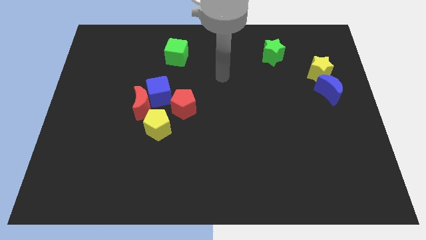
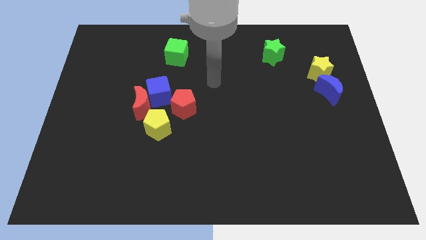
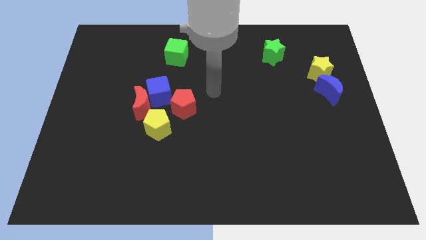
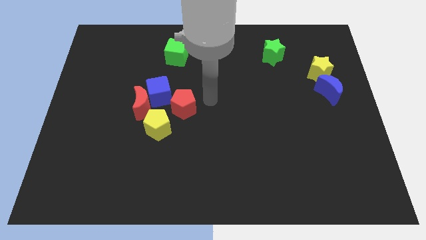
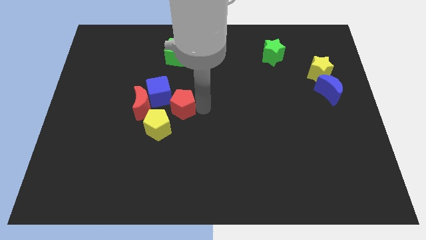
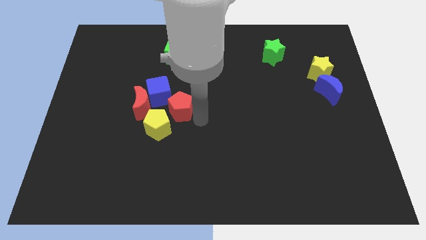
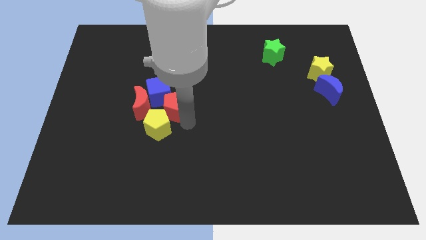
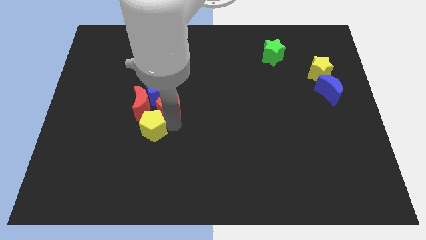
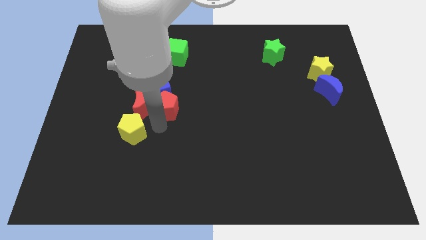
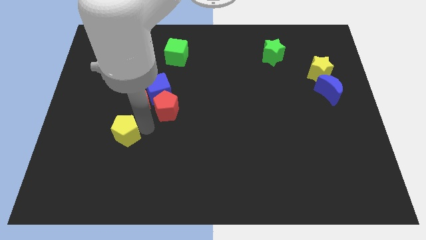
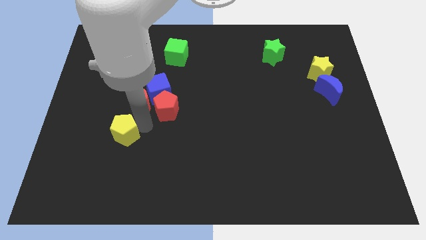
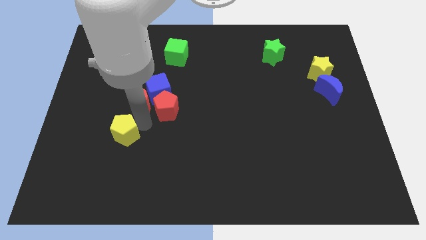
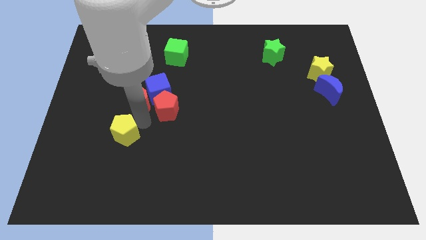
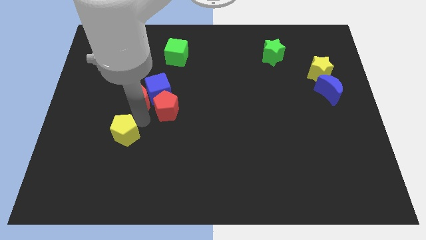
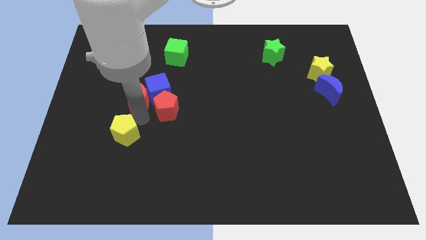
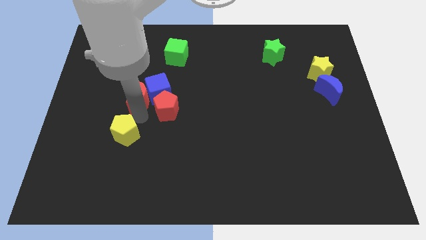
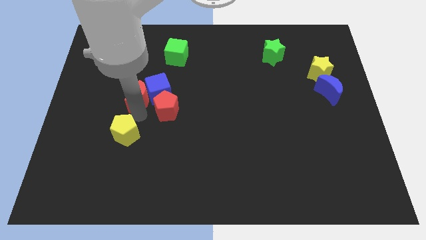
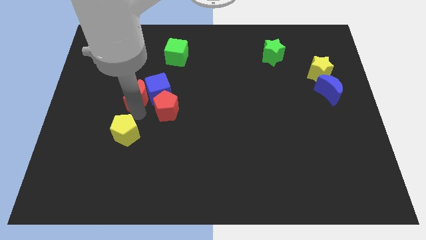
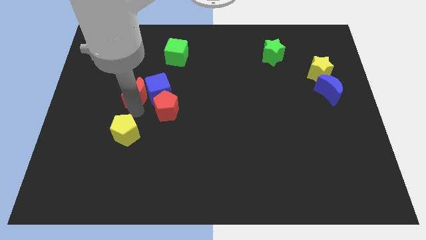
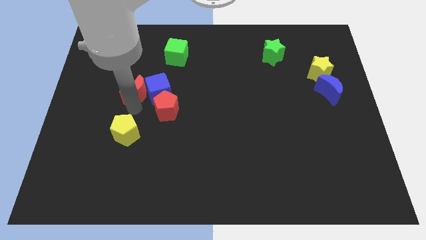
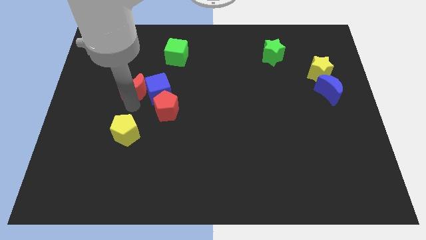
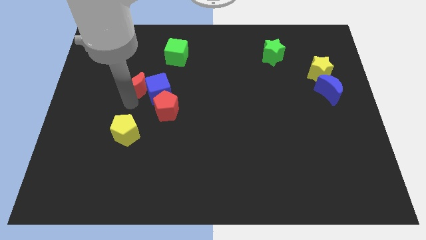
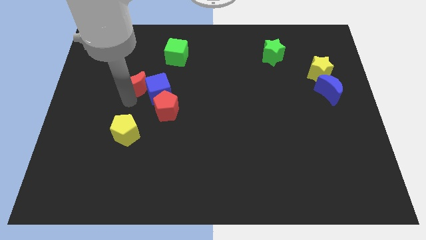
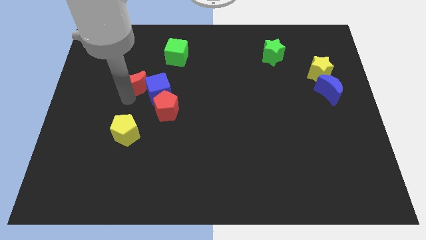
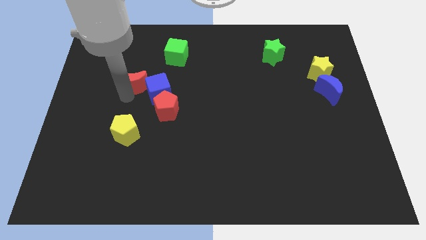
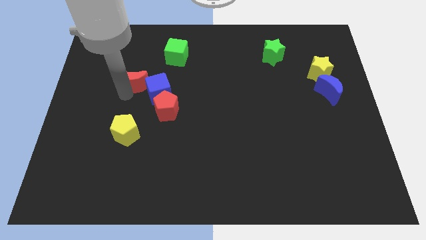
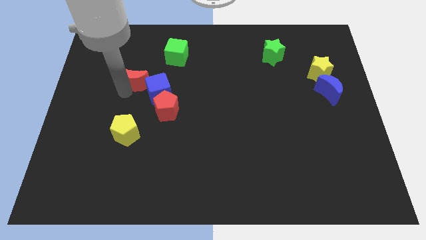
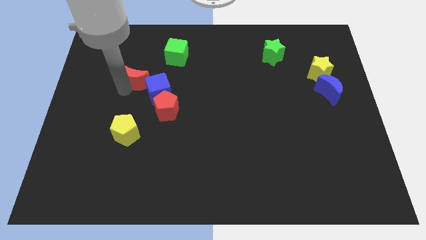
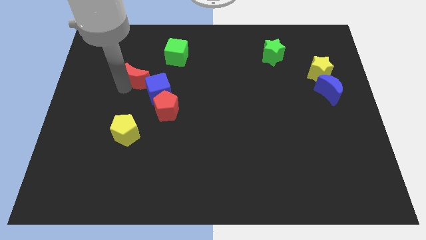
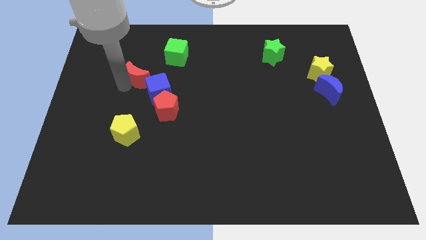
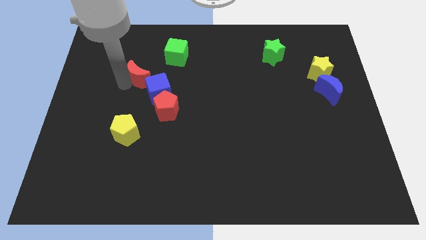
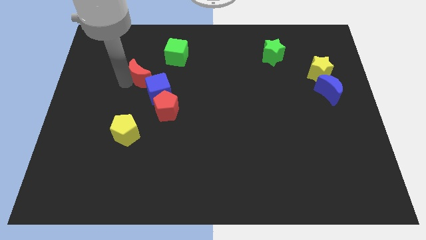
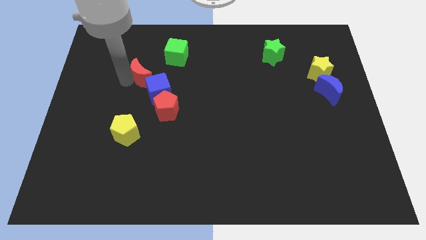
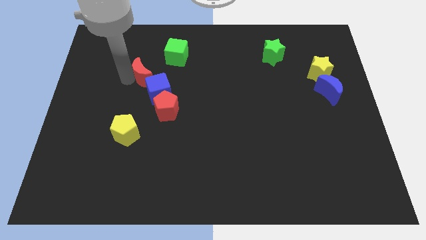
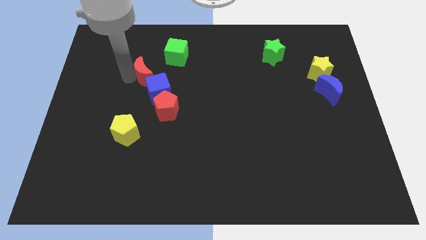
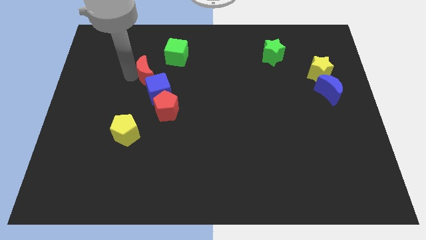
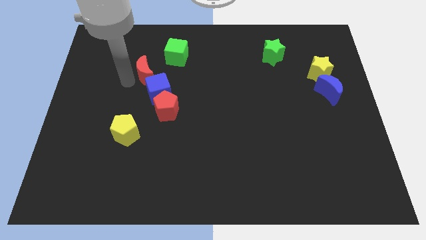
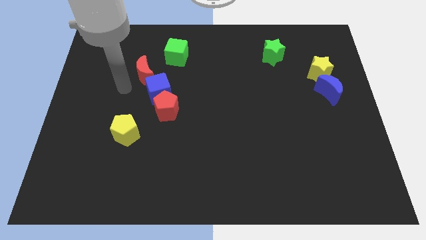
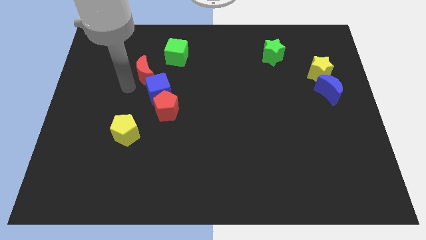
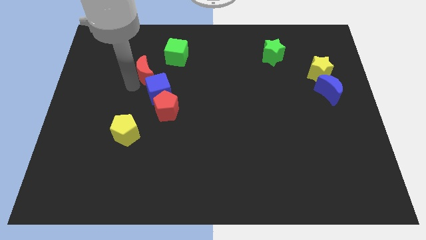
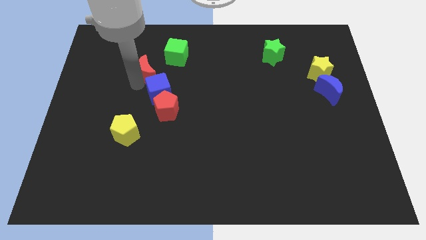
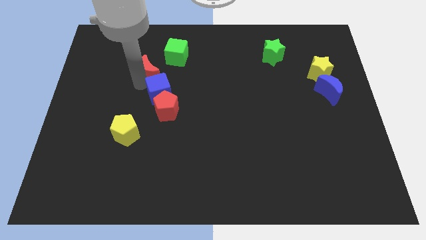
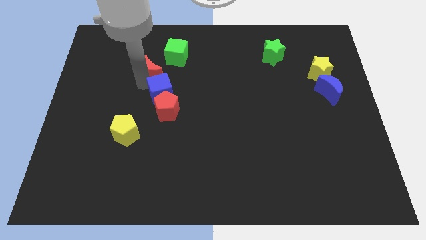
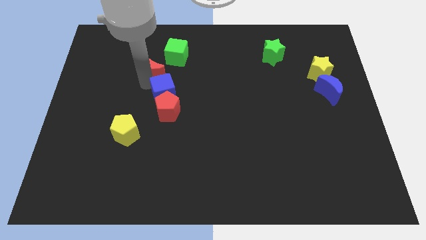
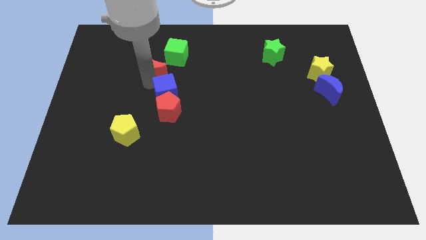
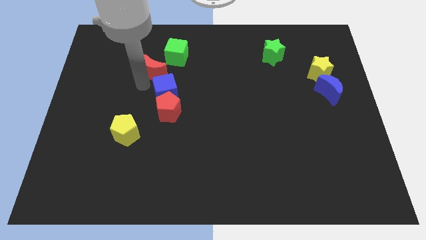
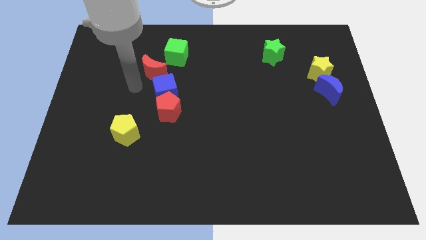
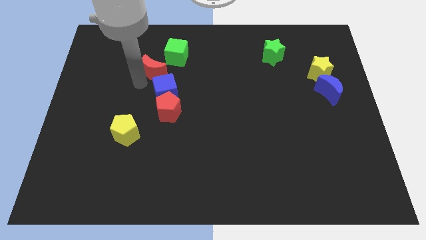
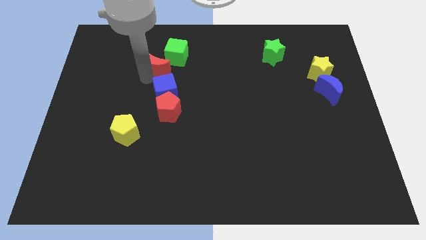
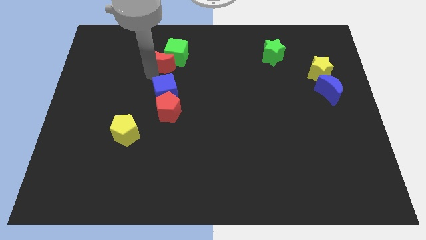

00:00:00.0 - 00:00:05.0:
put the red moon next to the green cube

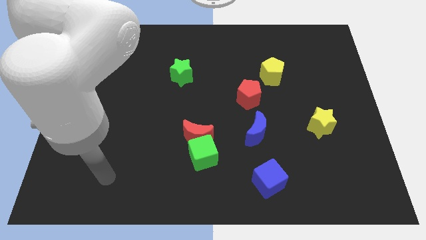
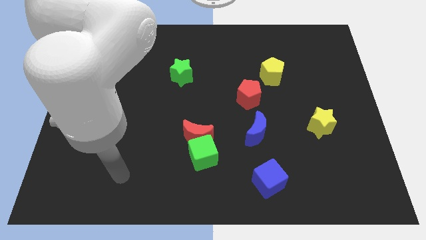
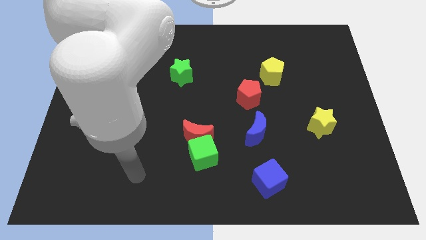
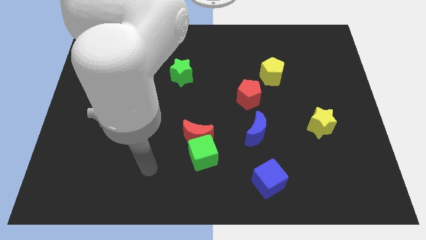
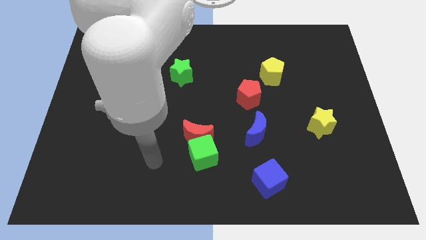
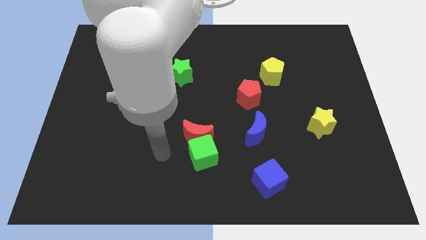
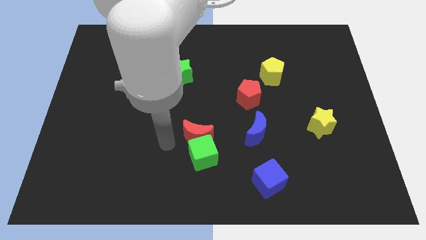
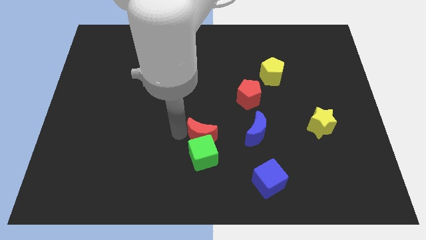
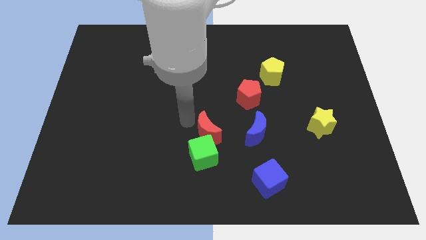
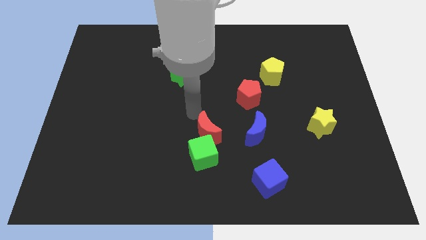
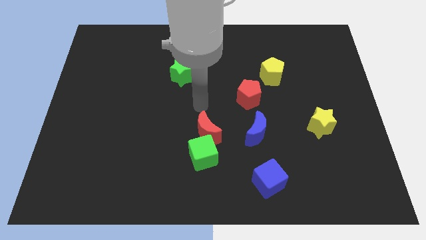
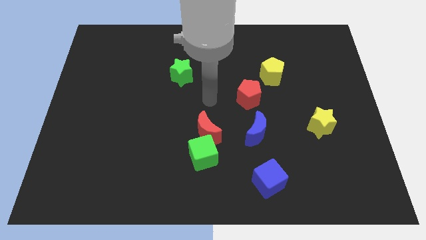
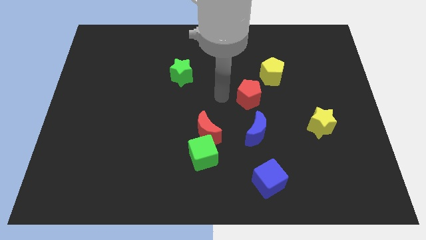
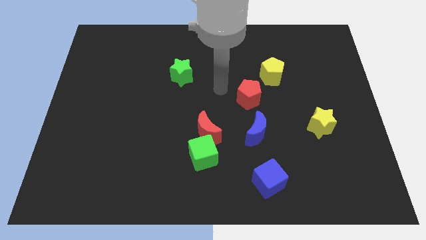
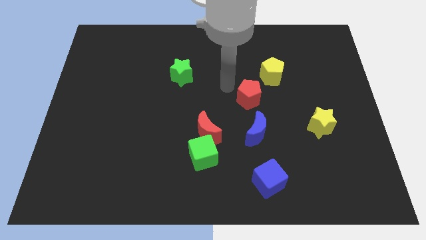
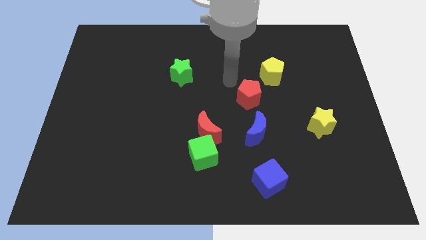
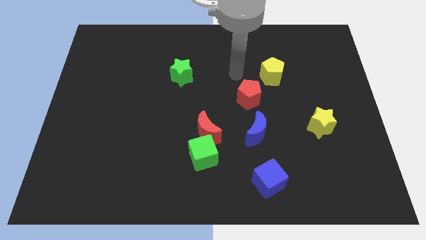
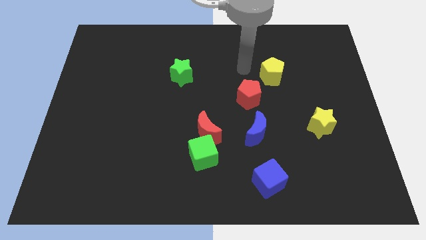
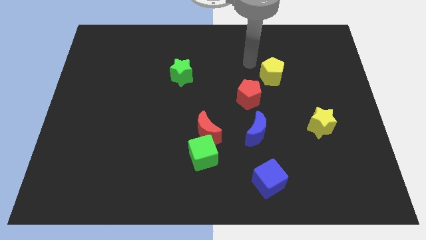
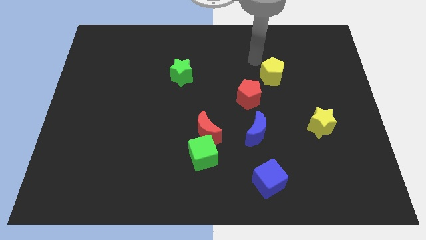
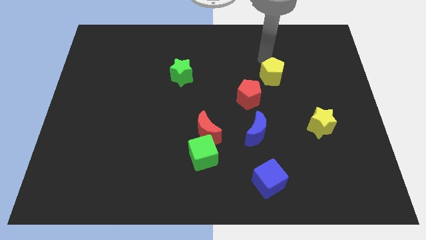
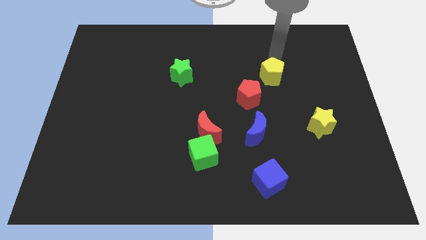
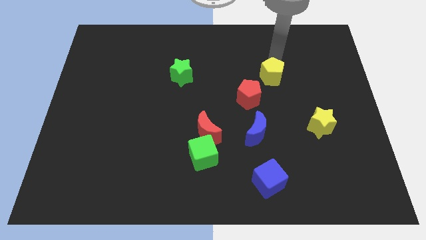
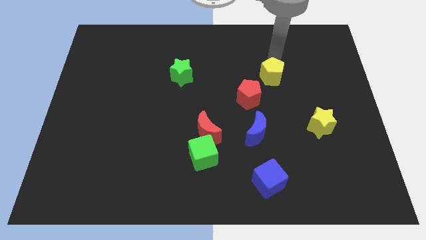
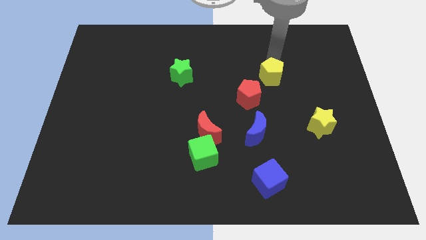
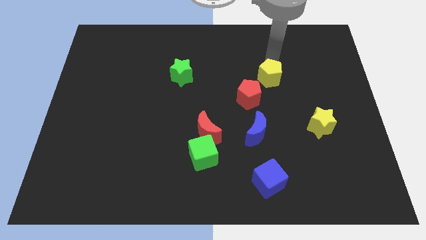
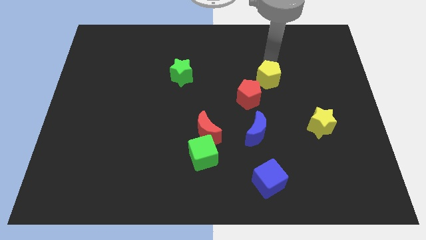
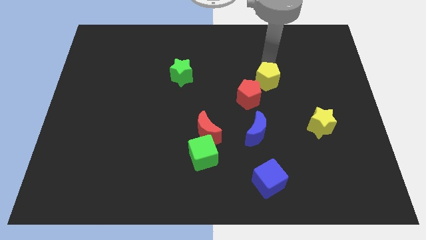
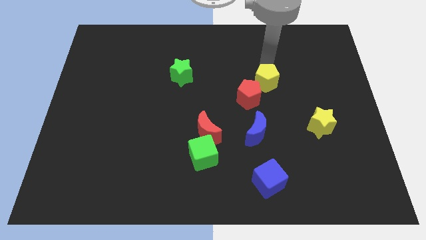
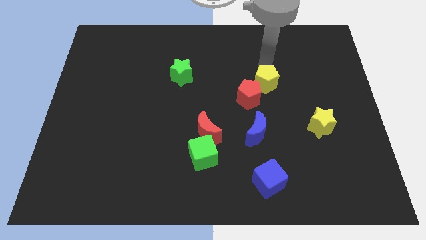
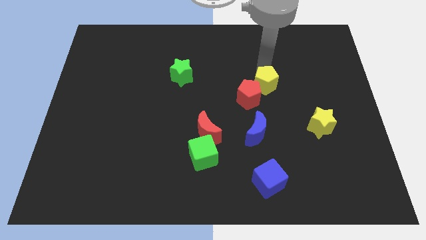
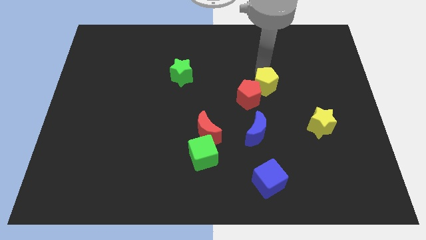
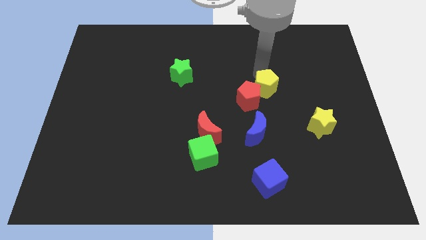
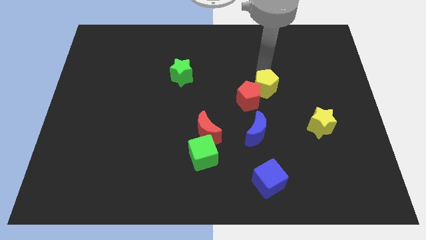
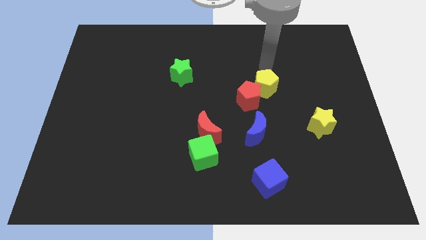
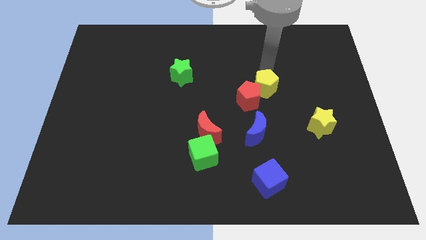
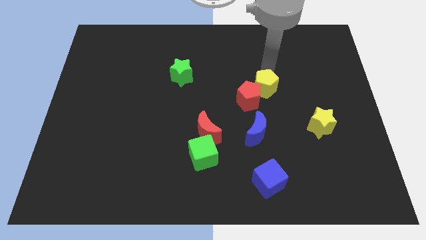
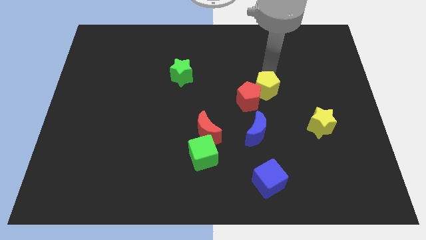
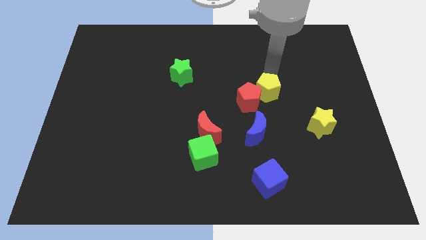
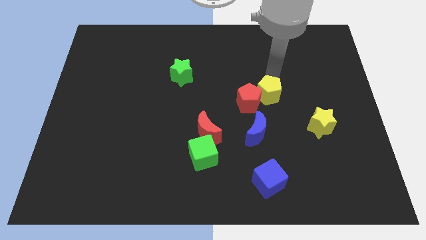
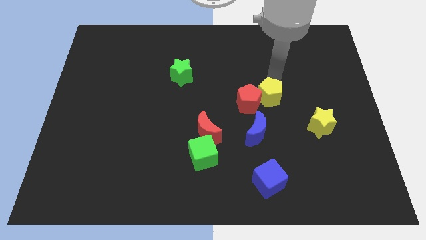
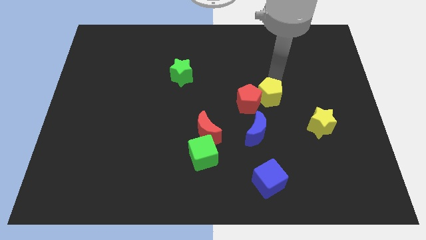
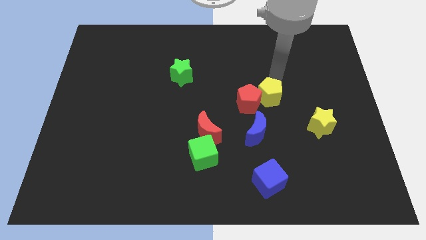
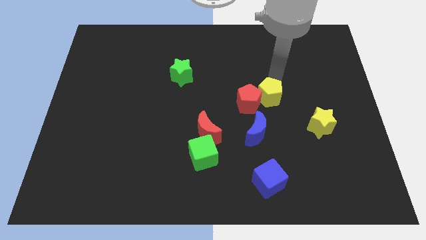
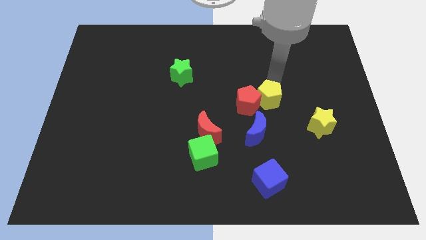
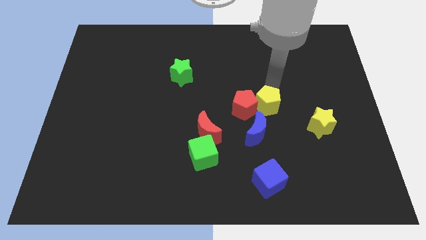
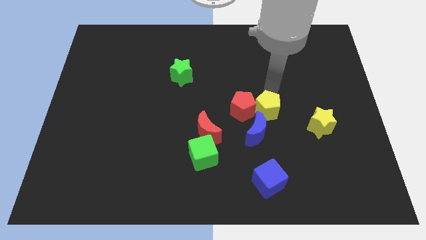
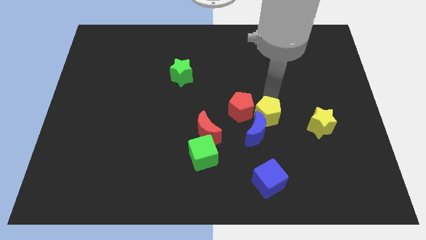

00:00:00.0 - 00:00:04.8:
move the yellow pentagon close to the blue moon
